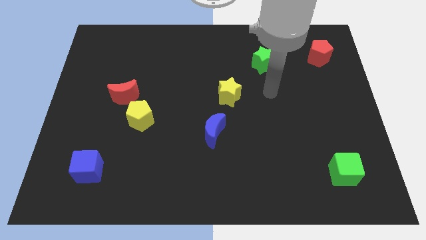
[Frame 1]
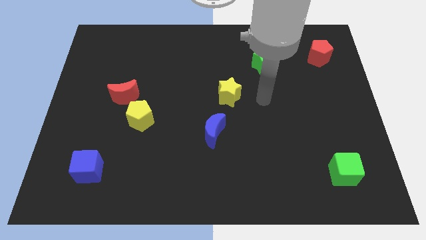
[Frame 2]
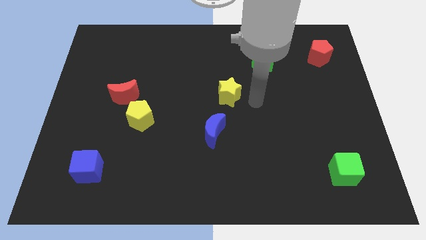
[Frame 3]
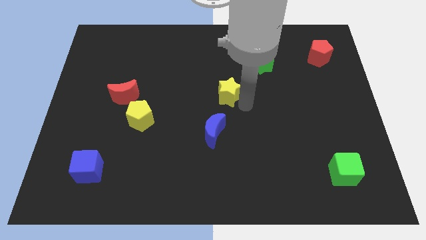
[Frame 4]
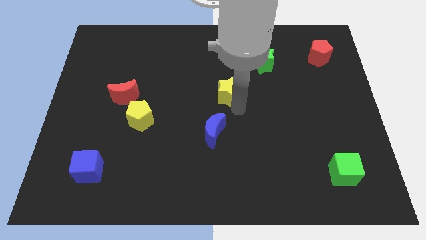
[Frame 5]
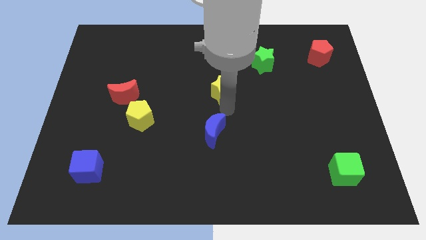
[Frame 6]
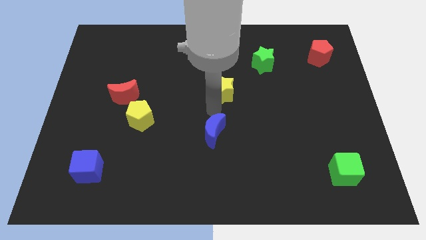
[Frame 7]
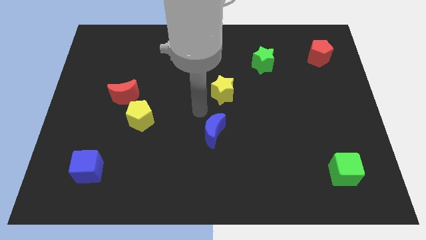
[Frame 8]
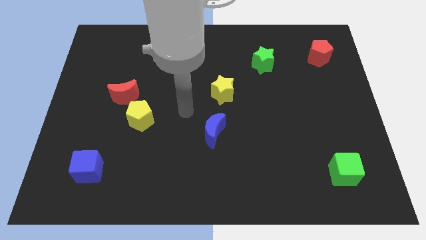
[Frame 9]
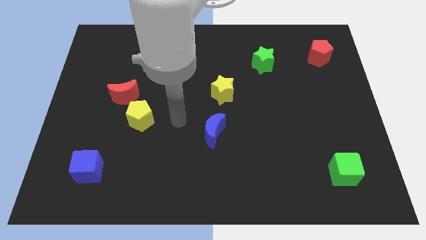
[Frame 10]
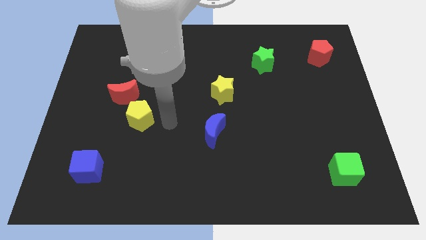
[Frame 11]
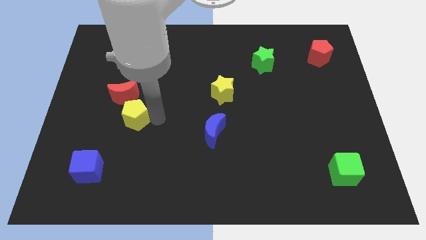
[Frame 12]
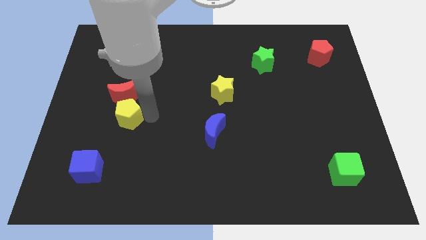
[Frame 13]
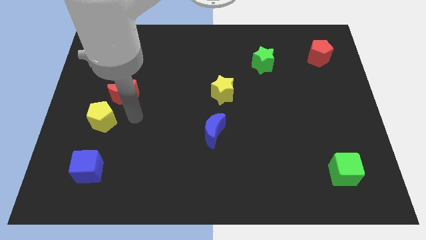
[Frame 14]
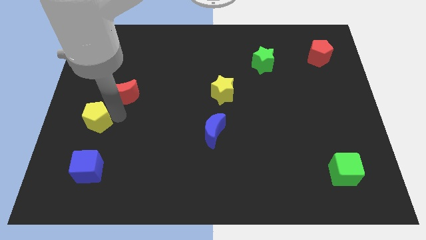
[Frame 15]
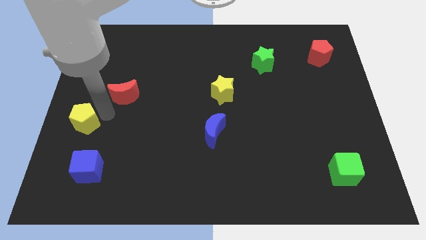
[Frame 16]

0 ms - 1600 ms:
separate the red moon from the yellow pentagon

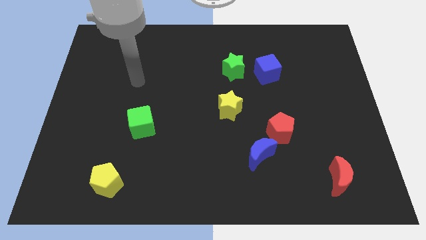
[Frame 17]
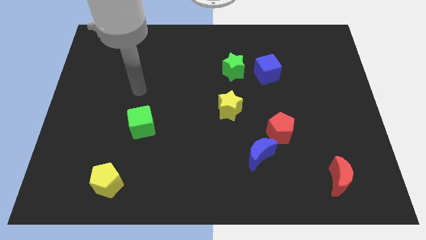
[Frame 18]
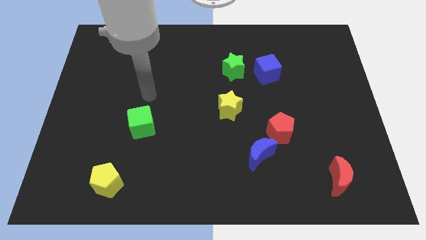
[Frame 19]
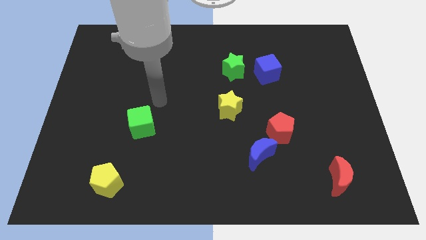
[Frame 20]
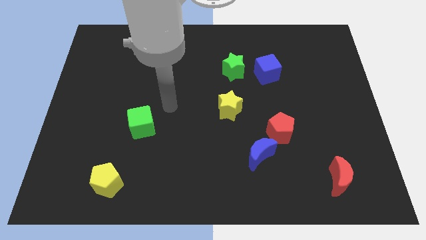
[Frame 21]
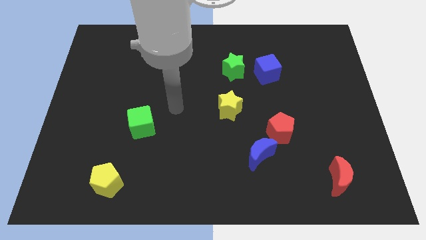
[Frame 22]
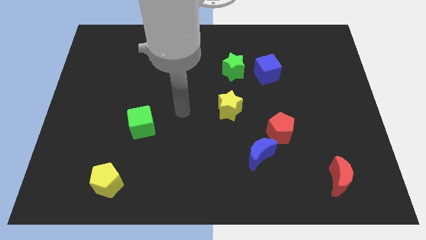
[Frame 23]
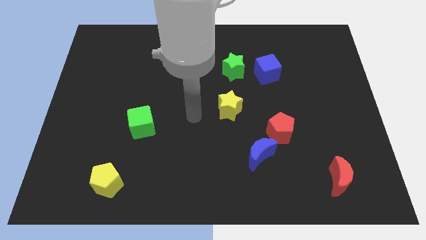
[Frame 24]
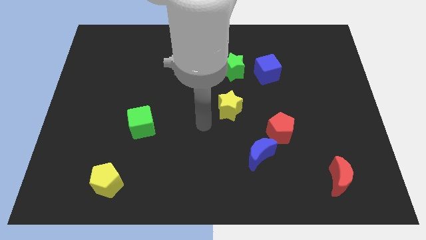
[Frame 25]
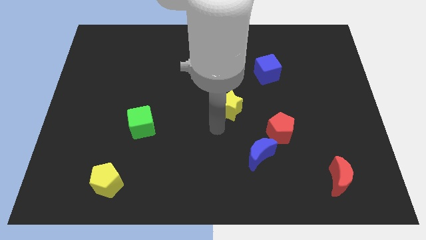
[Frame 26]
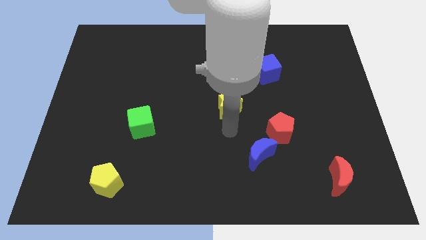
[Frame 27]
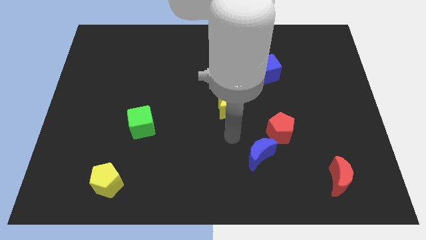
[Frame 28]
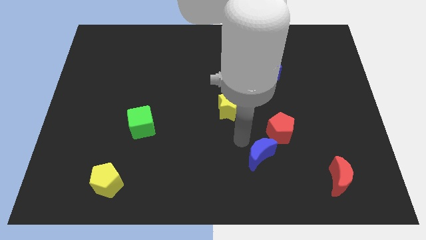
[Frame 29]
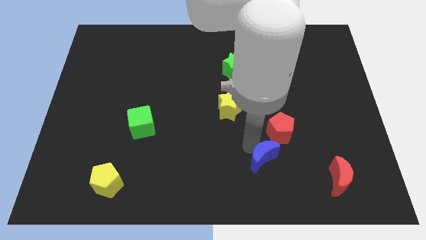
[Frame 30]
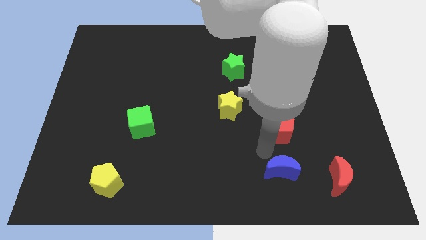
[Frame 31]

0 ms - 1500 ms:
separate the red pentagon from the blue moon

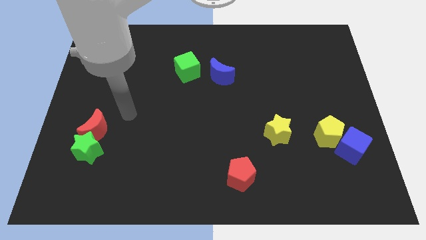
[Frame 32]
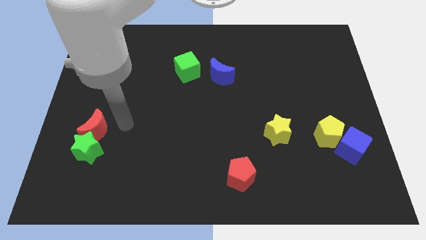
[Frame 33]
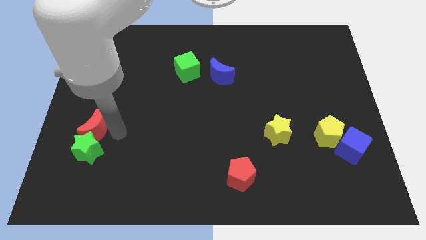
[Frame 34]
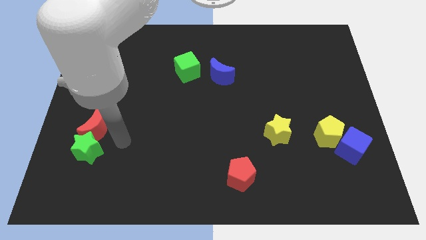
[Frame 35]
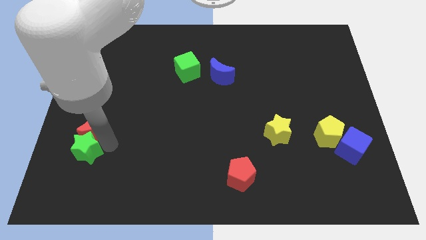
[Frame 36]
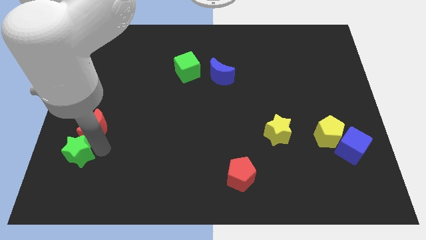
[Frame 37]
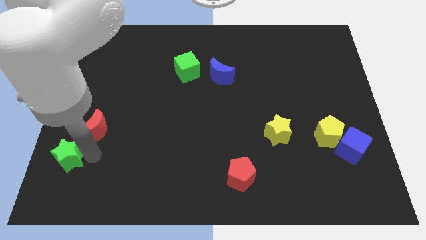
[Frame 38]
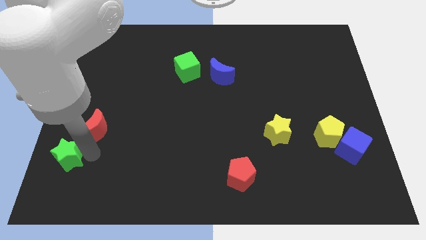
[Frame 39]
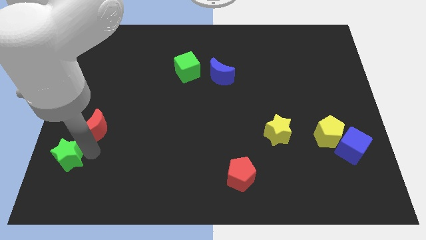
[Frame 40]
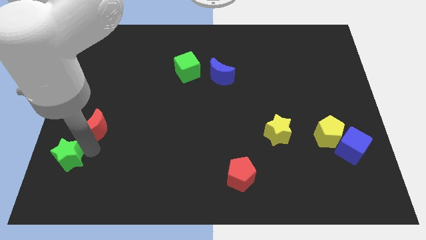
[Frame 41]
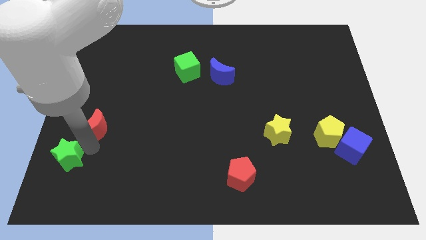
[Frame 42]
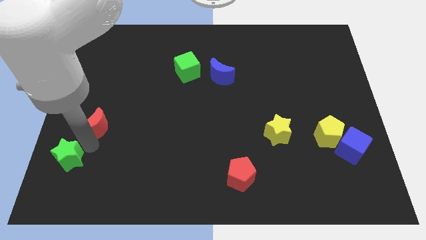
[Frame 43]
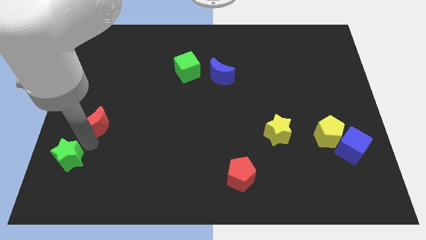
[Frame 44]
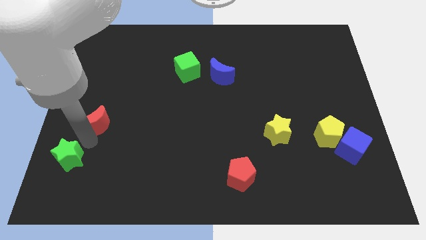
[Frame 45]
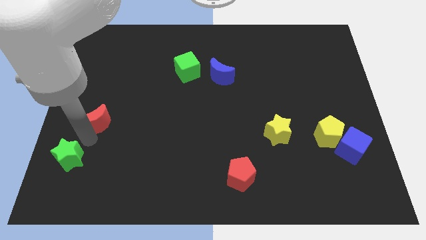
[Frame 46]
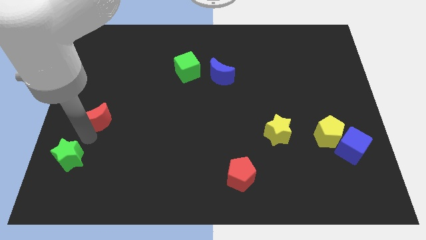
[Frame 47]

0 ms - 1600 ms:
separate the red moon from the green star

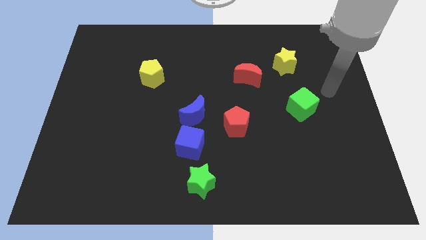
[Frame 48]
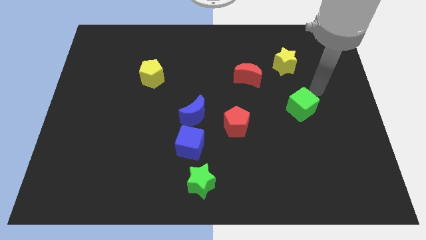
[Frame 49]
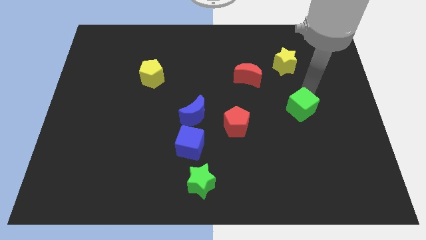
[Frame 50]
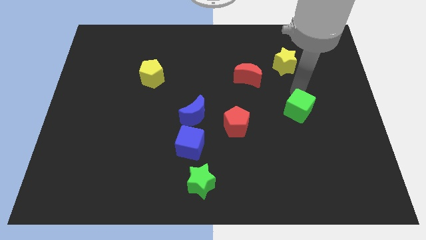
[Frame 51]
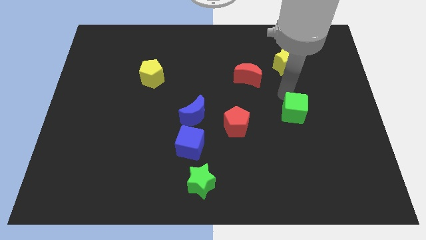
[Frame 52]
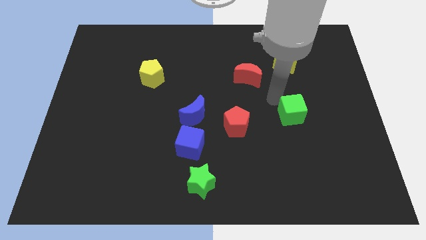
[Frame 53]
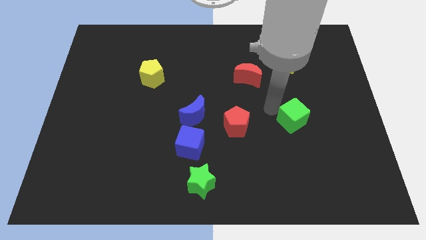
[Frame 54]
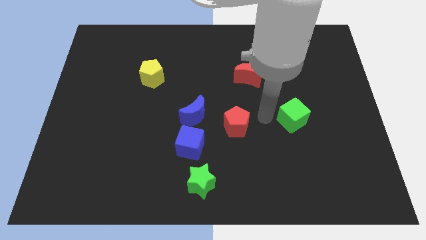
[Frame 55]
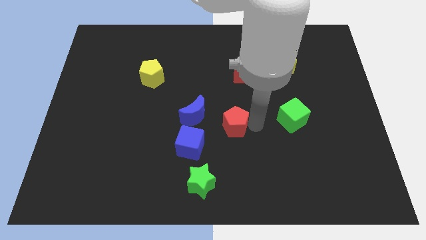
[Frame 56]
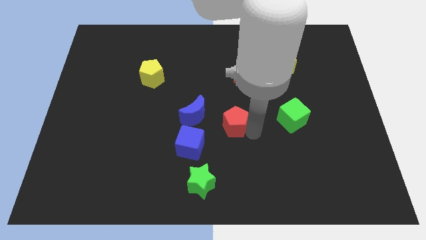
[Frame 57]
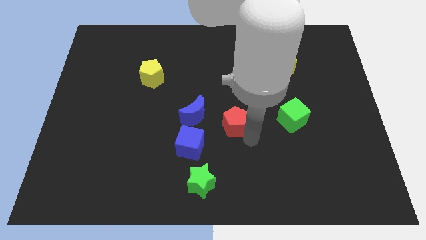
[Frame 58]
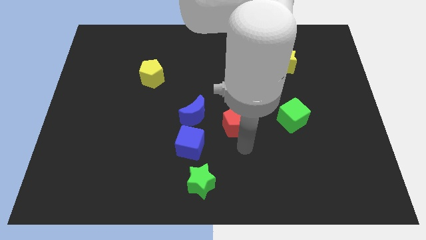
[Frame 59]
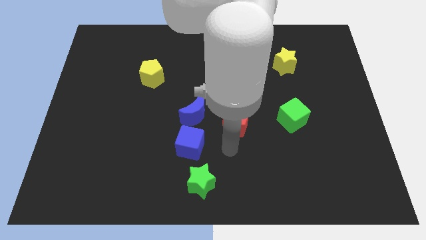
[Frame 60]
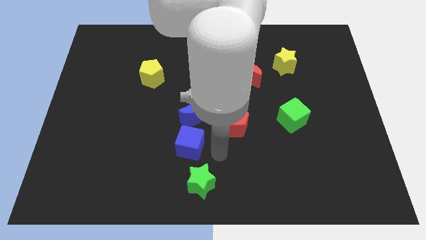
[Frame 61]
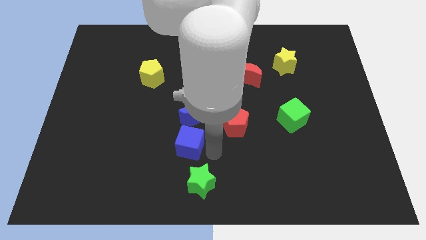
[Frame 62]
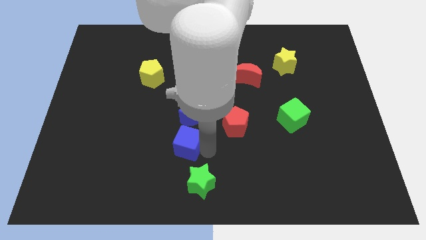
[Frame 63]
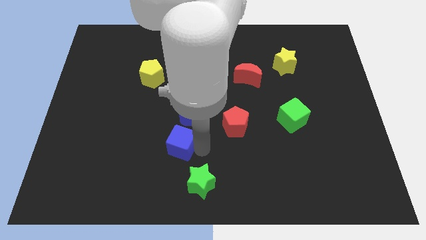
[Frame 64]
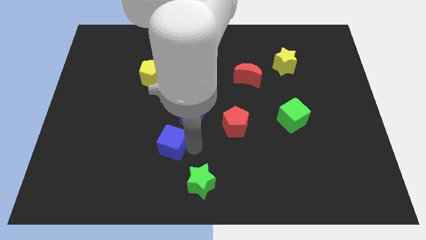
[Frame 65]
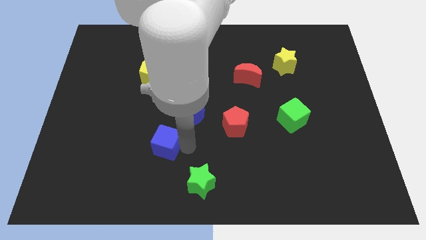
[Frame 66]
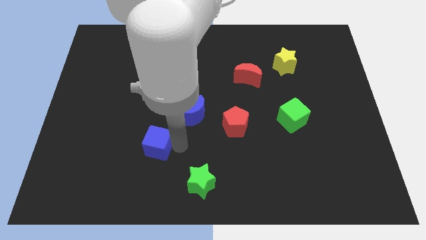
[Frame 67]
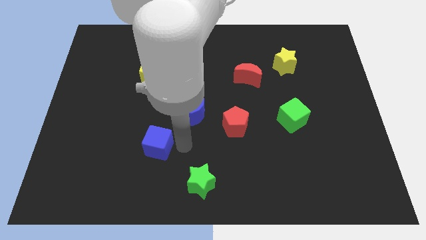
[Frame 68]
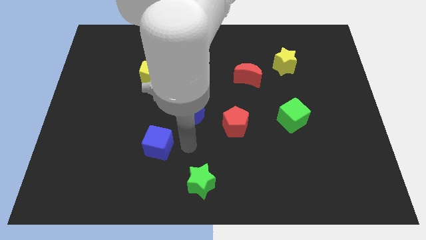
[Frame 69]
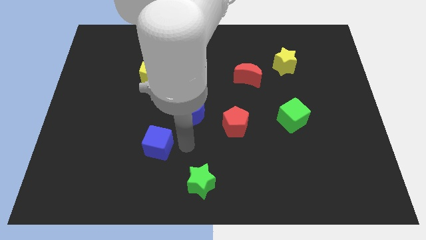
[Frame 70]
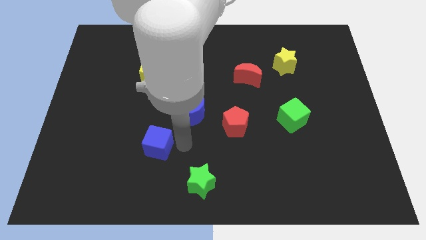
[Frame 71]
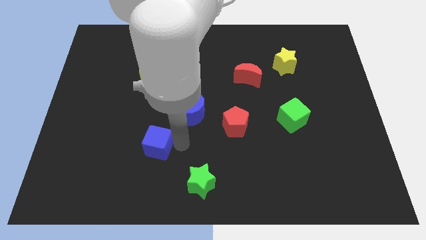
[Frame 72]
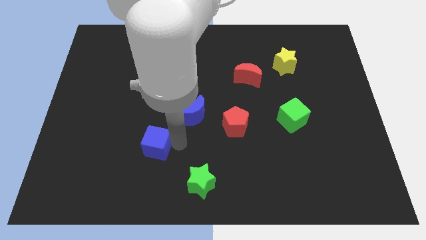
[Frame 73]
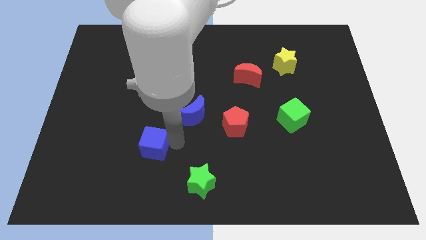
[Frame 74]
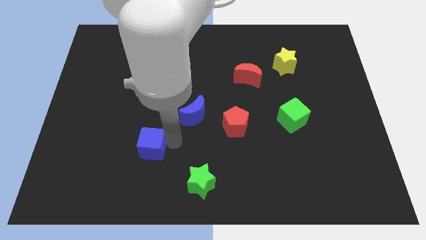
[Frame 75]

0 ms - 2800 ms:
move the blue cube away from the blue moon and green star

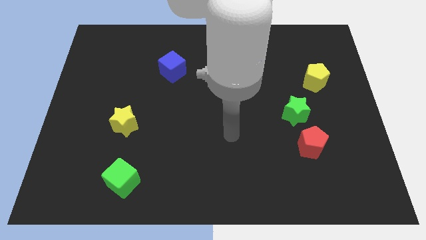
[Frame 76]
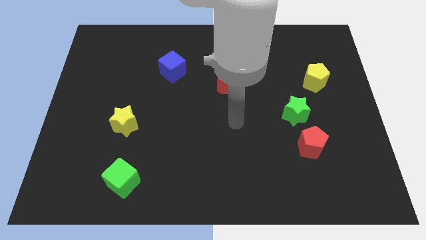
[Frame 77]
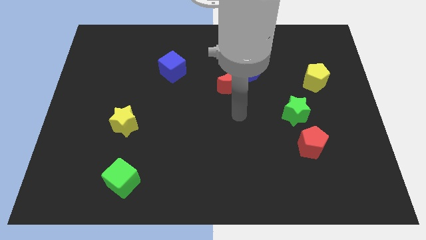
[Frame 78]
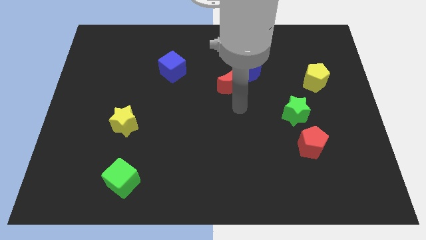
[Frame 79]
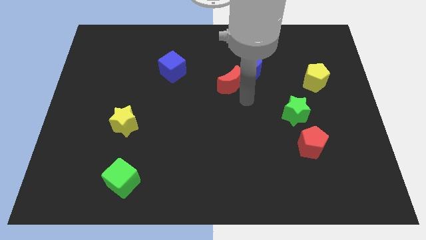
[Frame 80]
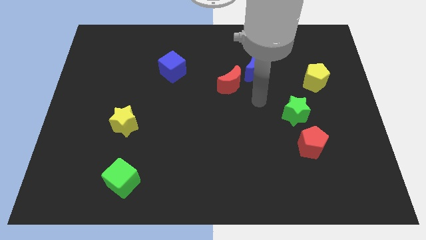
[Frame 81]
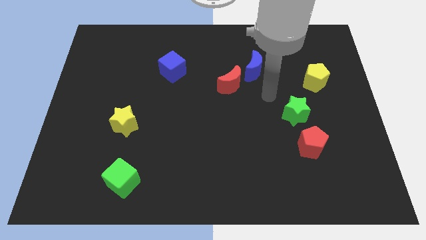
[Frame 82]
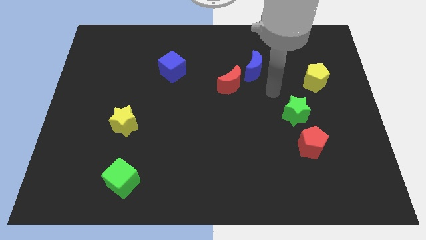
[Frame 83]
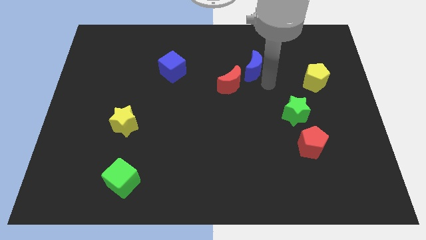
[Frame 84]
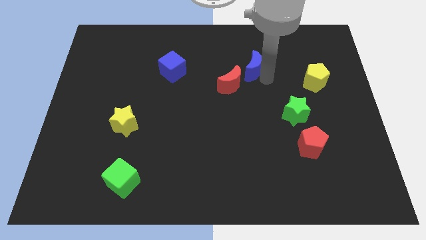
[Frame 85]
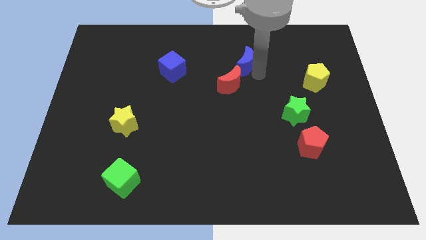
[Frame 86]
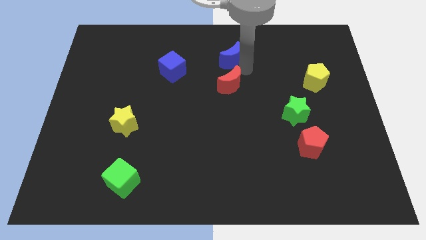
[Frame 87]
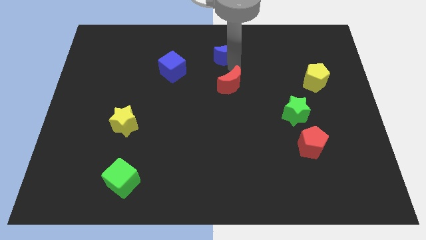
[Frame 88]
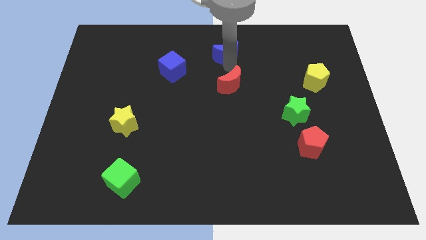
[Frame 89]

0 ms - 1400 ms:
separate the red moon from the blue moon

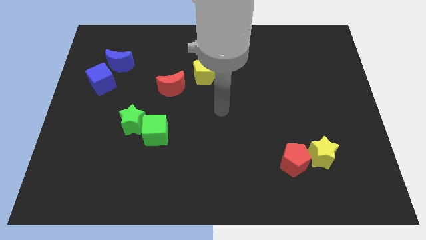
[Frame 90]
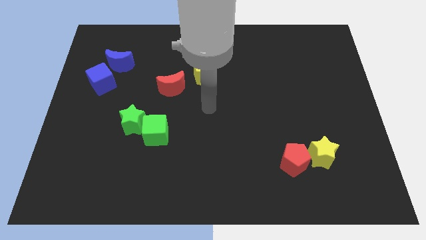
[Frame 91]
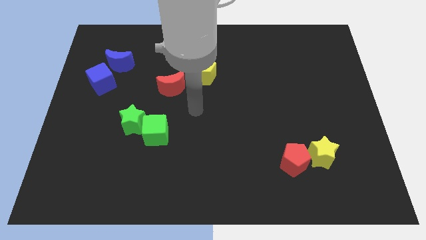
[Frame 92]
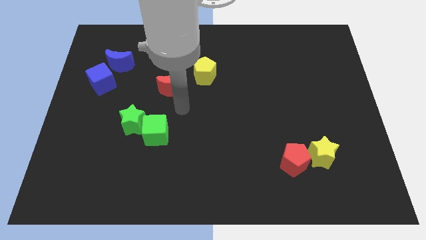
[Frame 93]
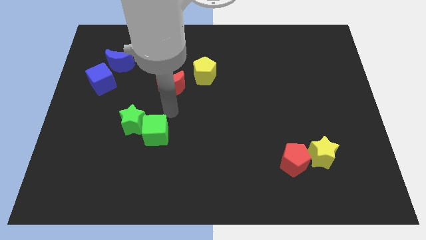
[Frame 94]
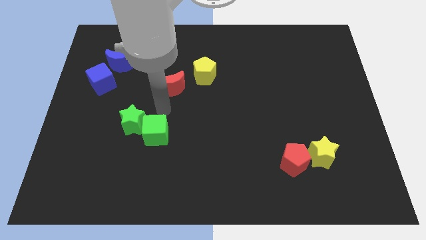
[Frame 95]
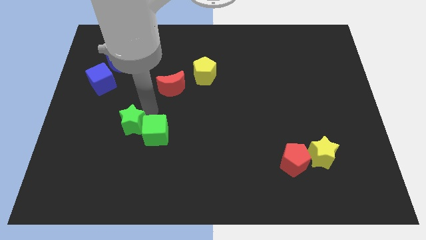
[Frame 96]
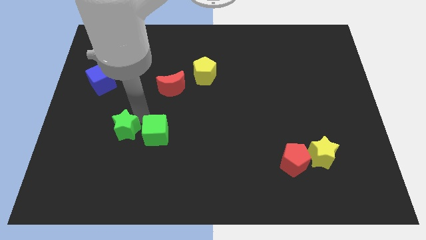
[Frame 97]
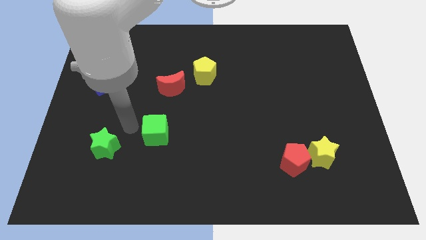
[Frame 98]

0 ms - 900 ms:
separate the green cube from the green star
